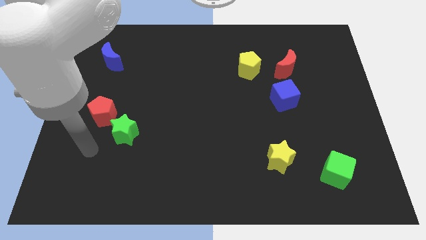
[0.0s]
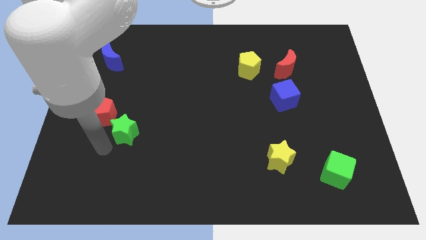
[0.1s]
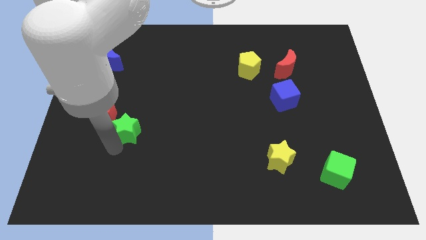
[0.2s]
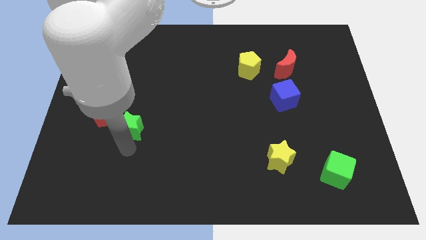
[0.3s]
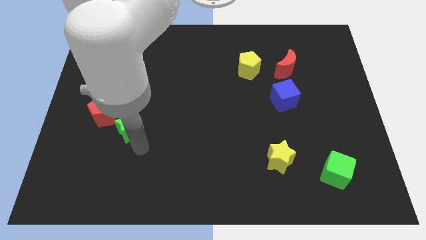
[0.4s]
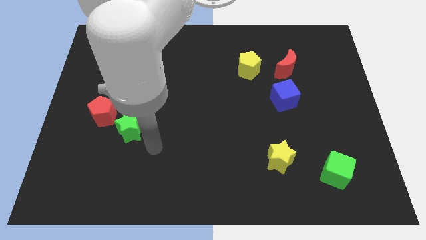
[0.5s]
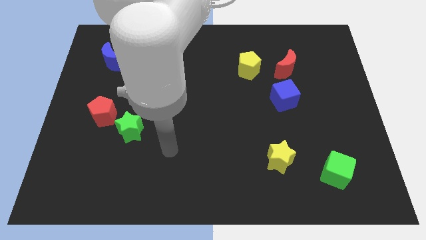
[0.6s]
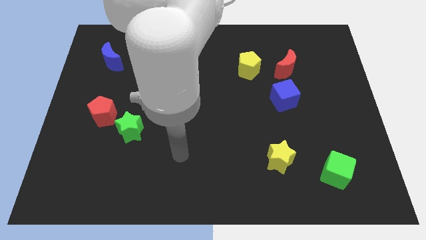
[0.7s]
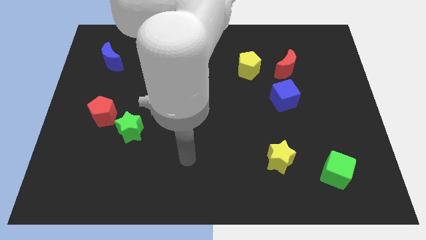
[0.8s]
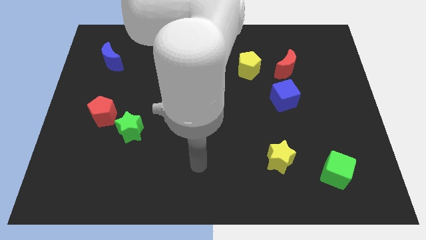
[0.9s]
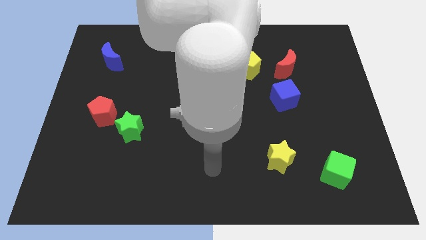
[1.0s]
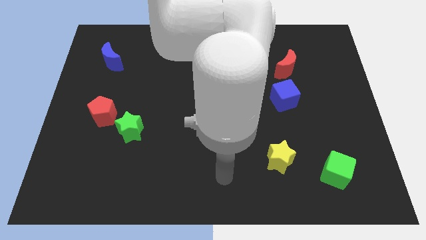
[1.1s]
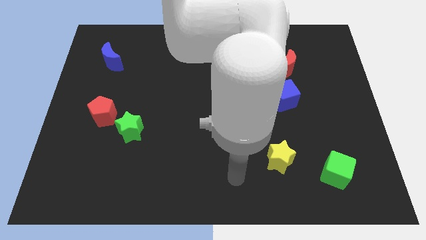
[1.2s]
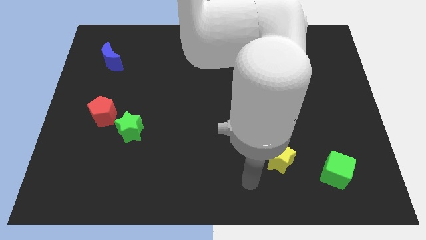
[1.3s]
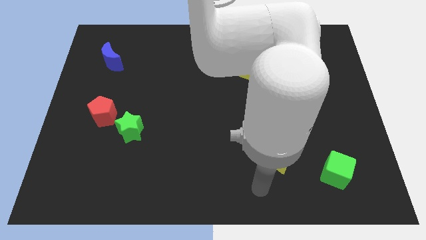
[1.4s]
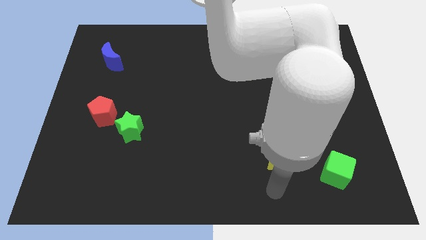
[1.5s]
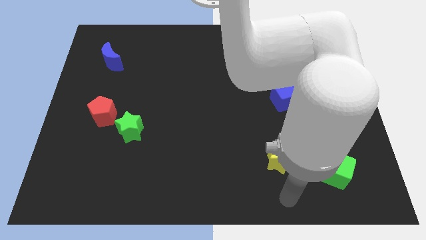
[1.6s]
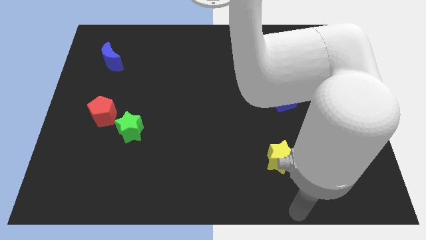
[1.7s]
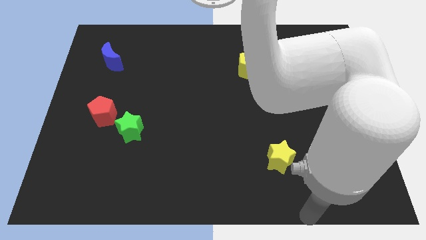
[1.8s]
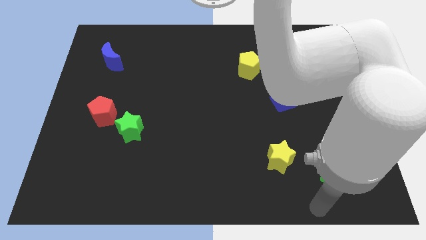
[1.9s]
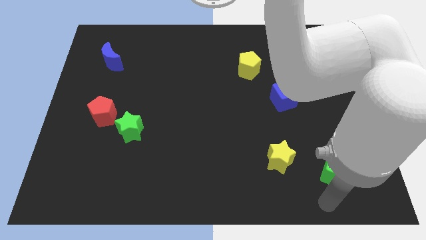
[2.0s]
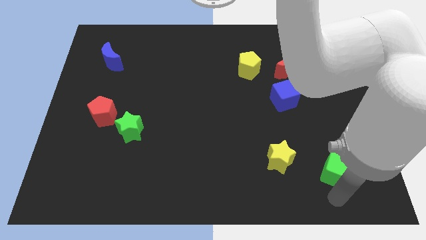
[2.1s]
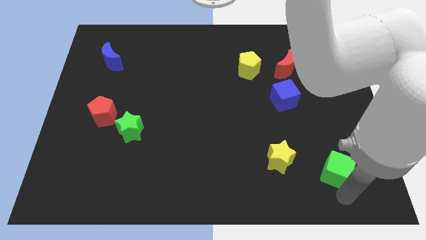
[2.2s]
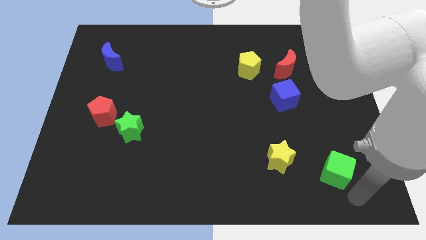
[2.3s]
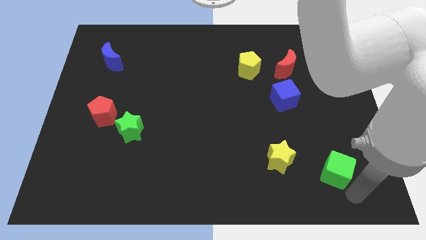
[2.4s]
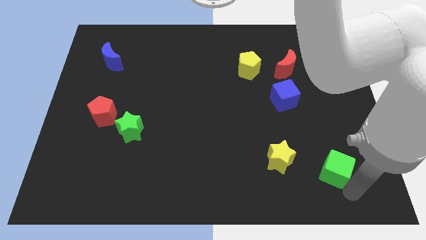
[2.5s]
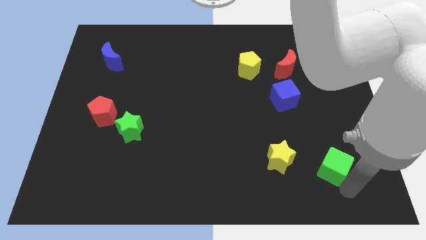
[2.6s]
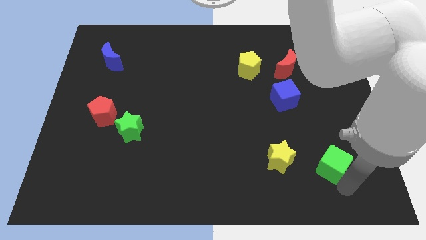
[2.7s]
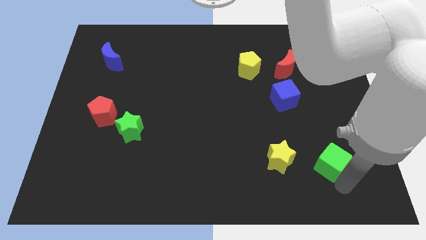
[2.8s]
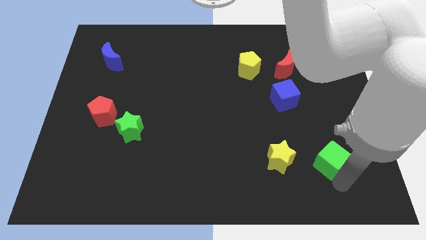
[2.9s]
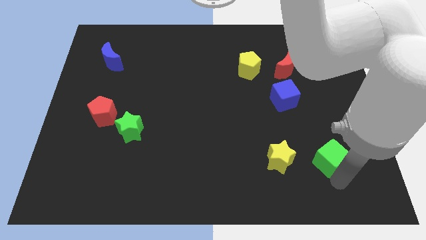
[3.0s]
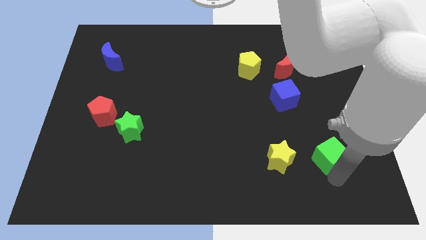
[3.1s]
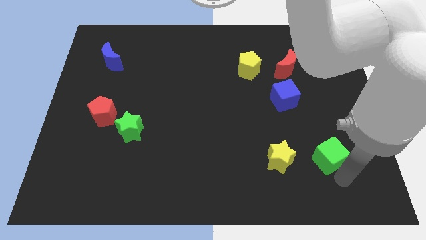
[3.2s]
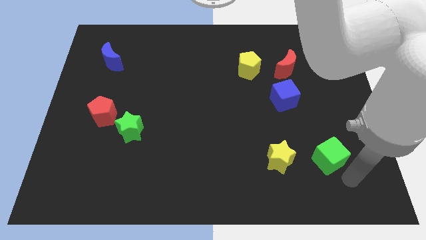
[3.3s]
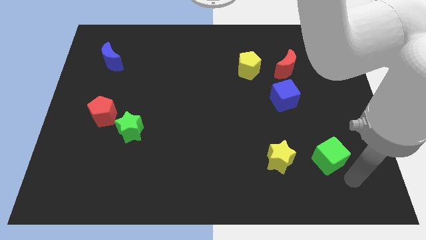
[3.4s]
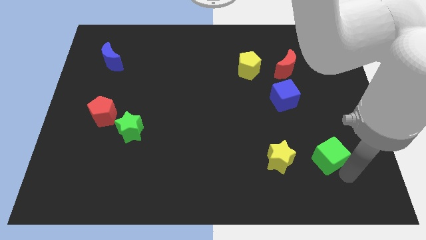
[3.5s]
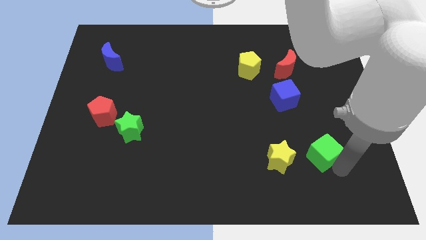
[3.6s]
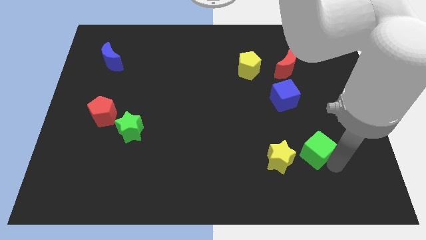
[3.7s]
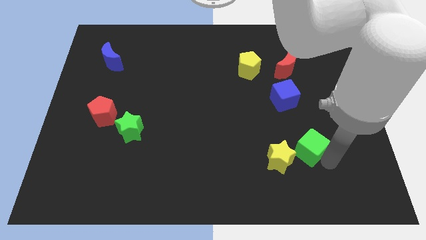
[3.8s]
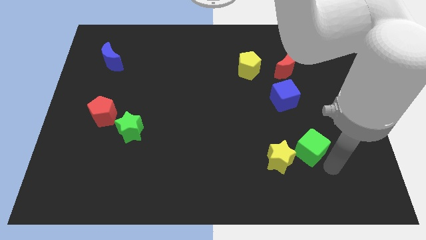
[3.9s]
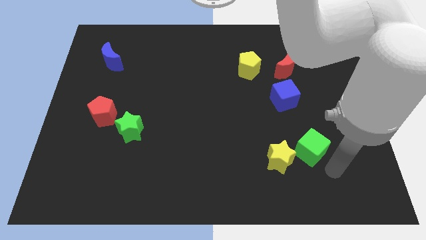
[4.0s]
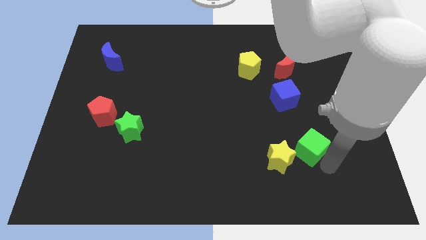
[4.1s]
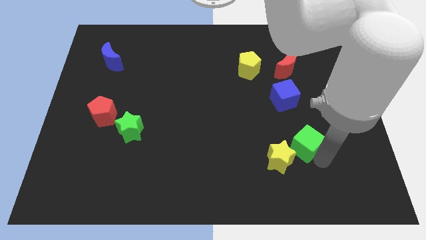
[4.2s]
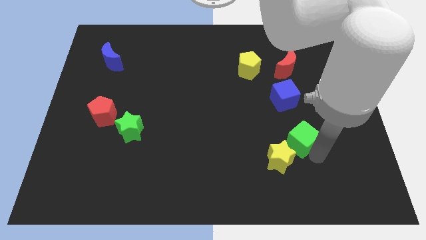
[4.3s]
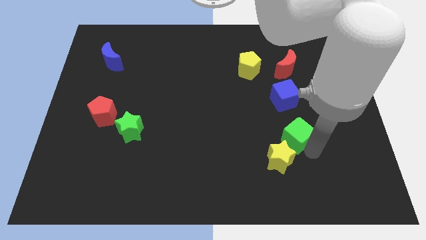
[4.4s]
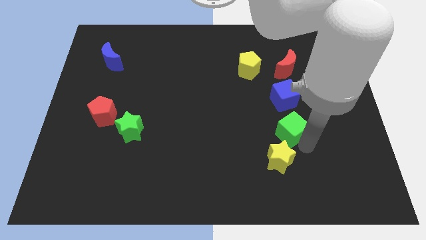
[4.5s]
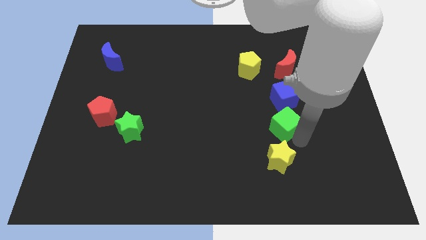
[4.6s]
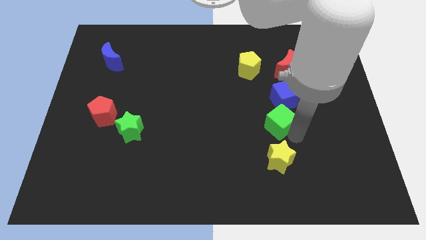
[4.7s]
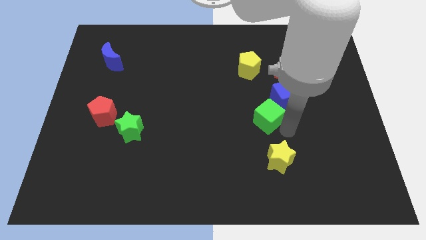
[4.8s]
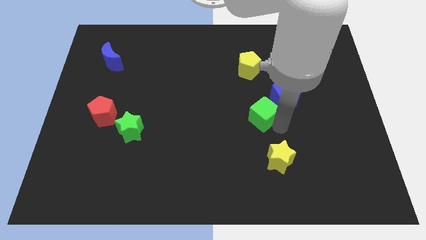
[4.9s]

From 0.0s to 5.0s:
move the green cube to the bottom side of the yellow pentagon

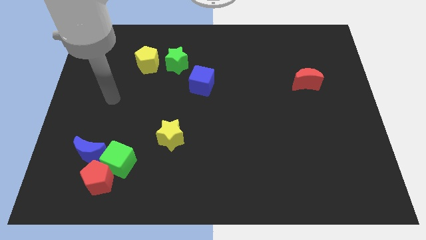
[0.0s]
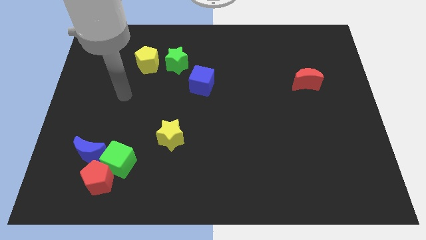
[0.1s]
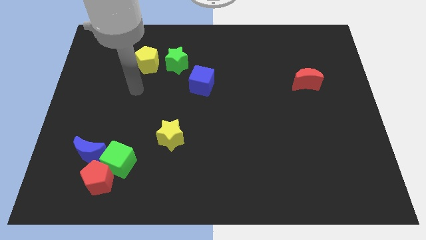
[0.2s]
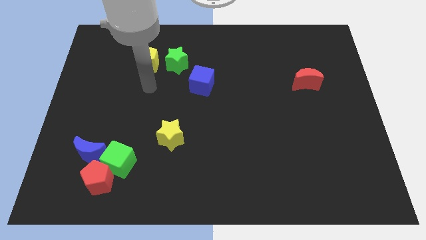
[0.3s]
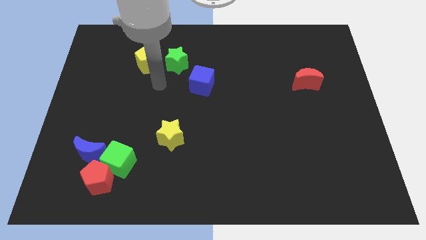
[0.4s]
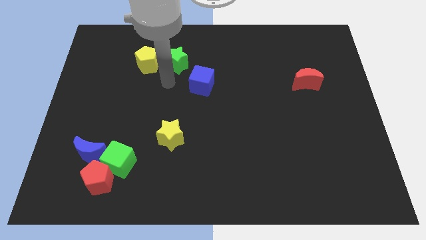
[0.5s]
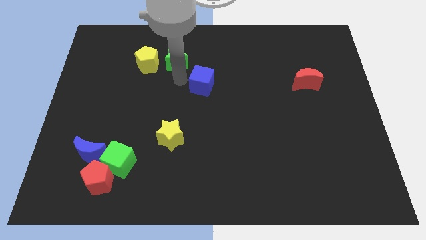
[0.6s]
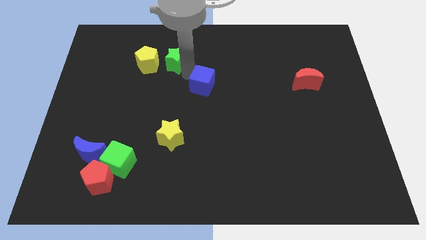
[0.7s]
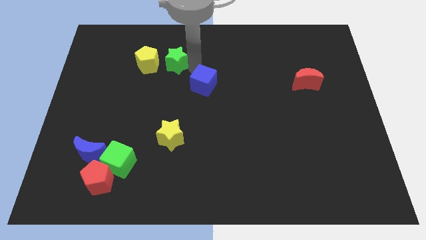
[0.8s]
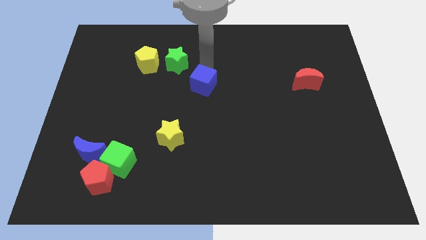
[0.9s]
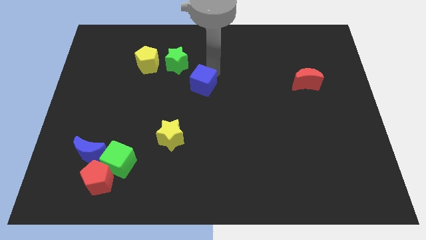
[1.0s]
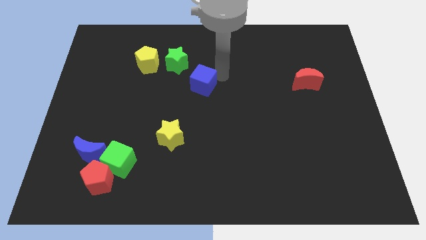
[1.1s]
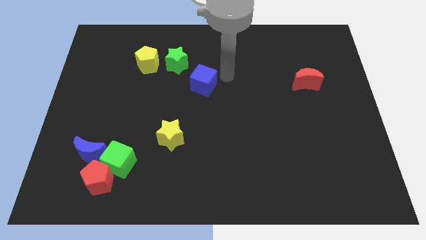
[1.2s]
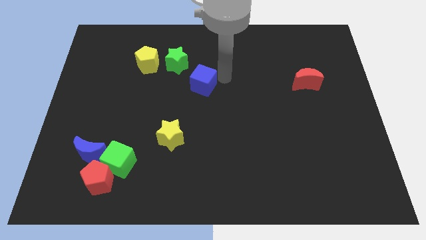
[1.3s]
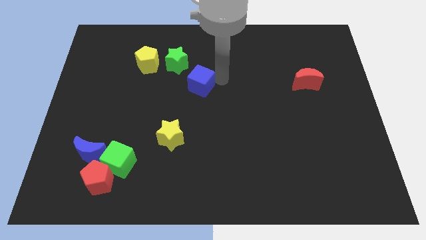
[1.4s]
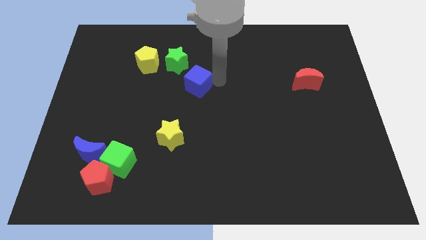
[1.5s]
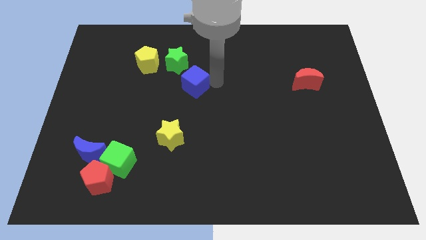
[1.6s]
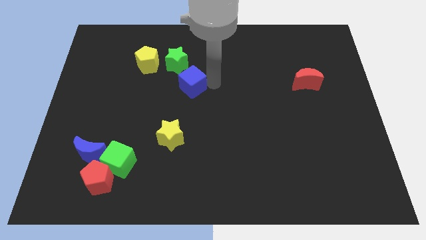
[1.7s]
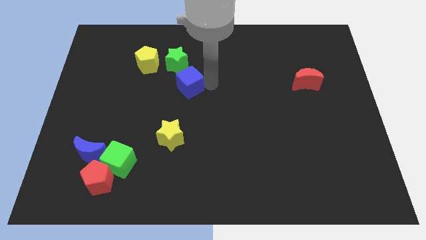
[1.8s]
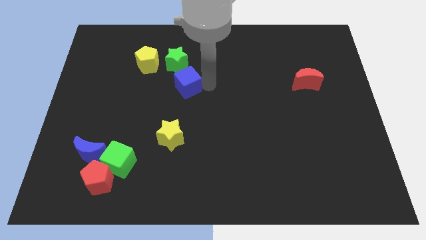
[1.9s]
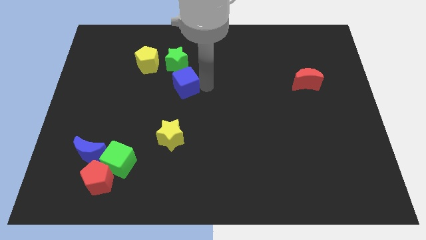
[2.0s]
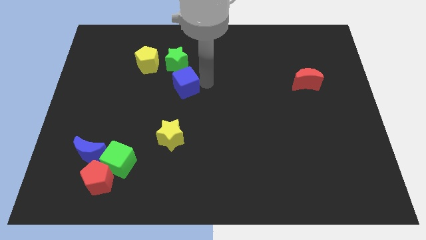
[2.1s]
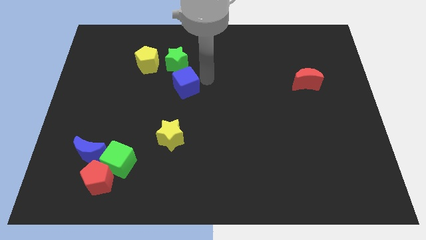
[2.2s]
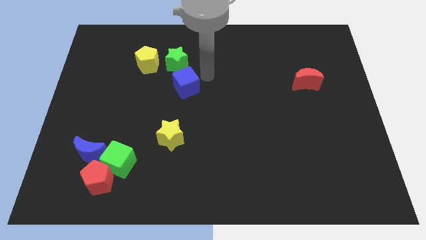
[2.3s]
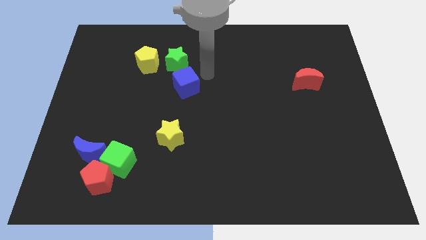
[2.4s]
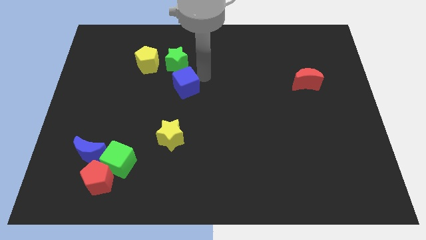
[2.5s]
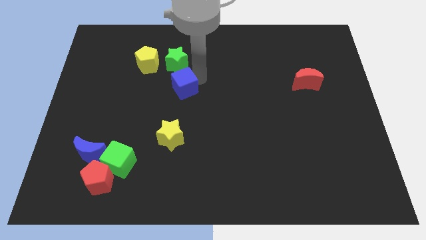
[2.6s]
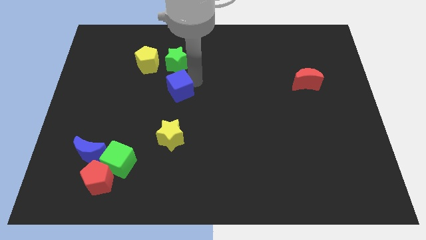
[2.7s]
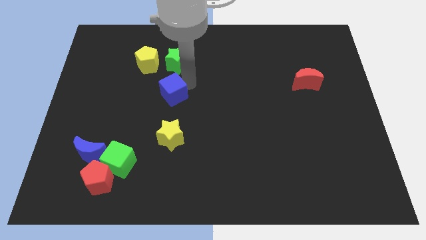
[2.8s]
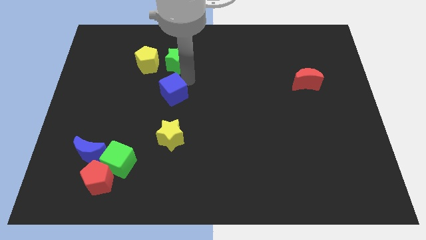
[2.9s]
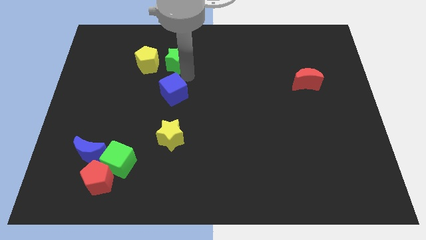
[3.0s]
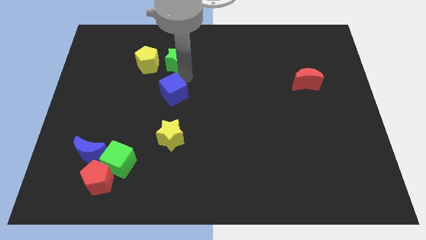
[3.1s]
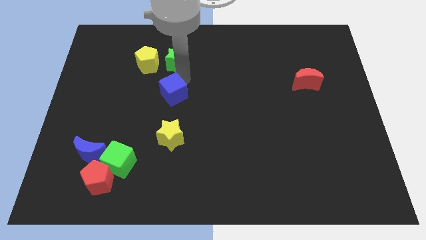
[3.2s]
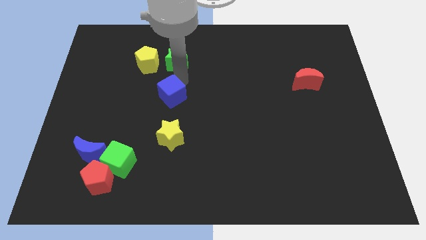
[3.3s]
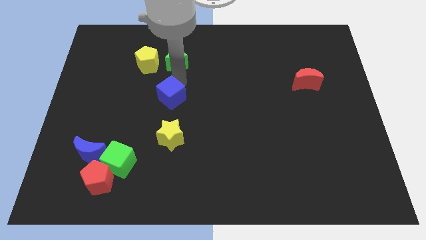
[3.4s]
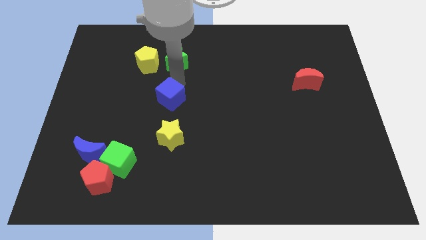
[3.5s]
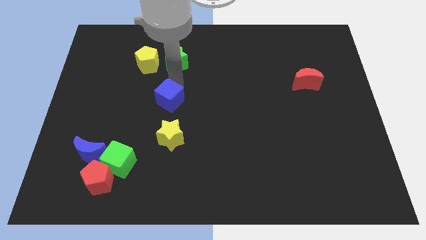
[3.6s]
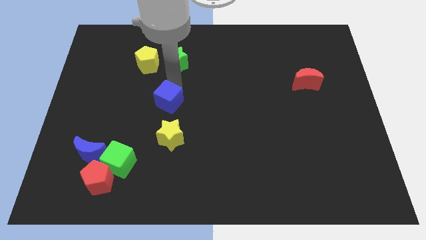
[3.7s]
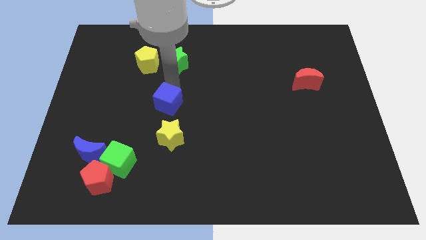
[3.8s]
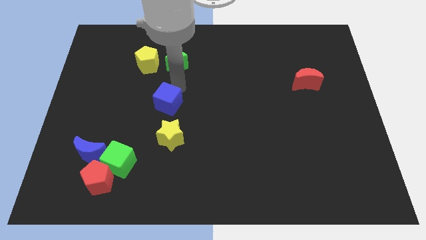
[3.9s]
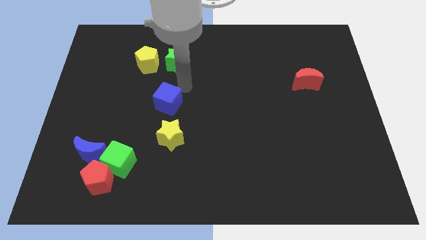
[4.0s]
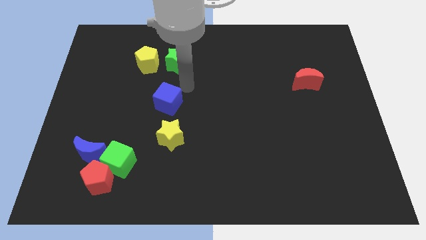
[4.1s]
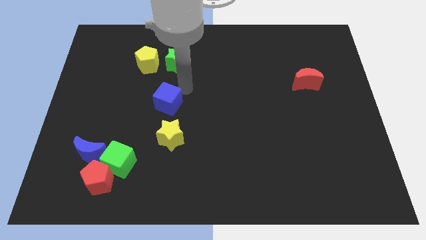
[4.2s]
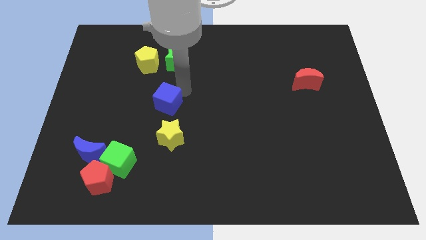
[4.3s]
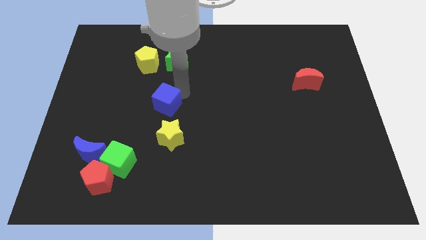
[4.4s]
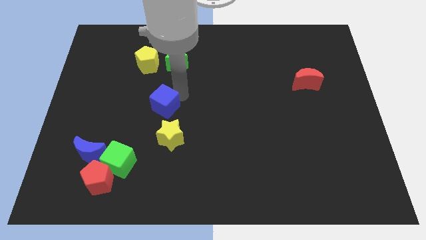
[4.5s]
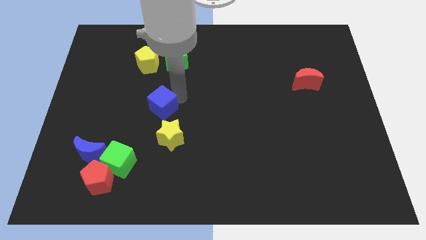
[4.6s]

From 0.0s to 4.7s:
push the blue cube diagonally up and to the left of the yellow star
